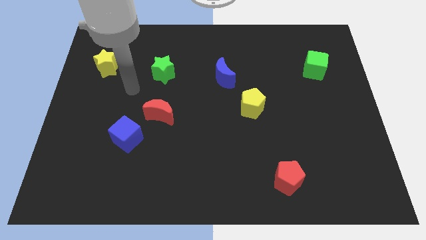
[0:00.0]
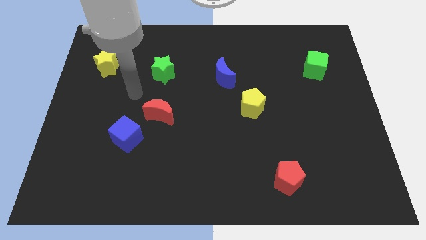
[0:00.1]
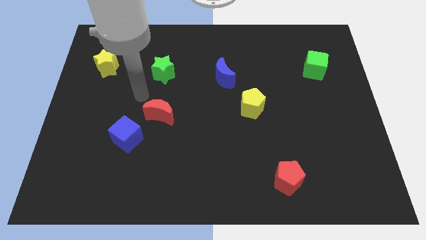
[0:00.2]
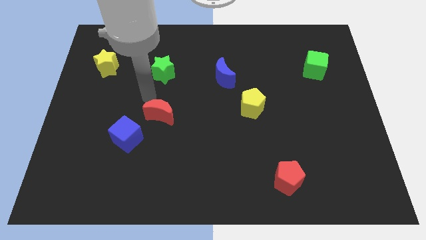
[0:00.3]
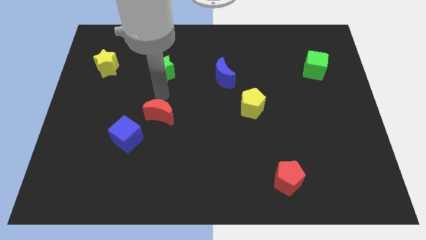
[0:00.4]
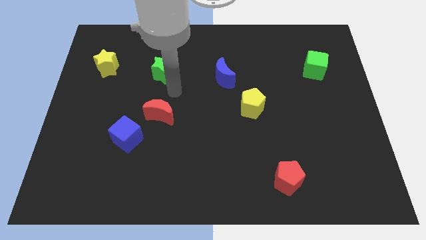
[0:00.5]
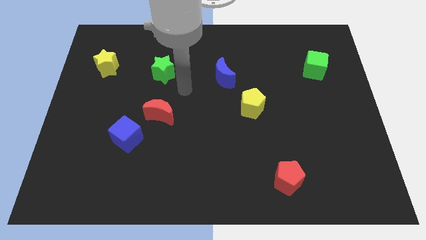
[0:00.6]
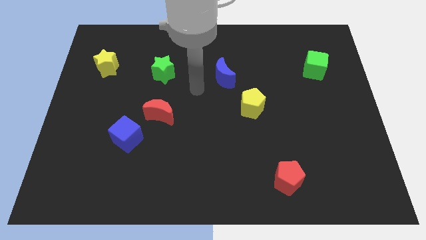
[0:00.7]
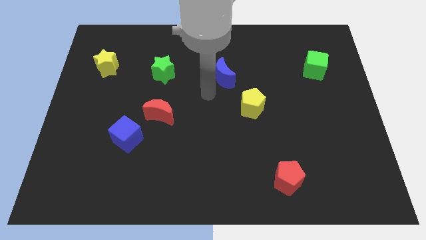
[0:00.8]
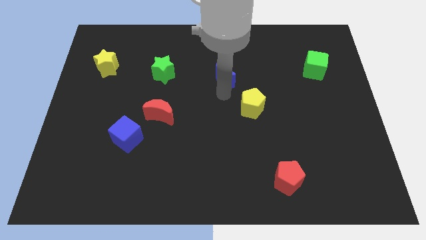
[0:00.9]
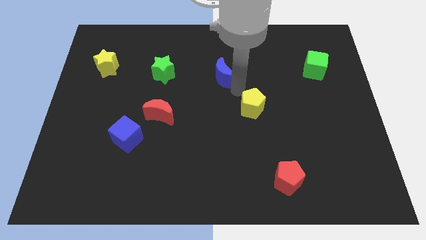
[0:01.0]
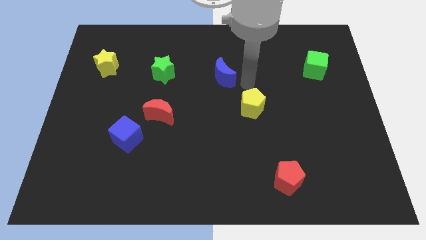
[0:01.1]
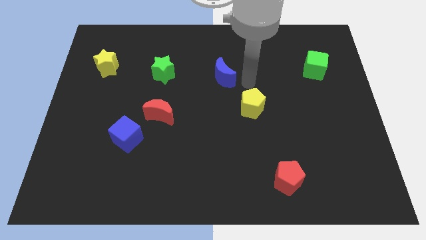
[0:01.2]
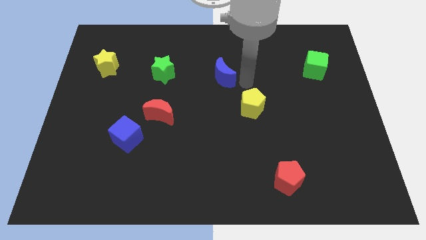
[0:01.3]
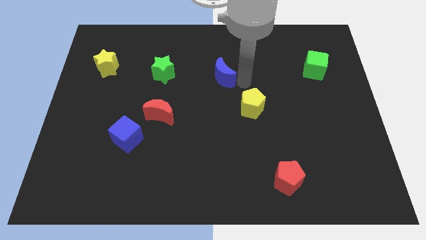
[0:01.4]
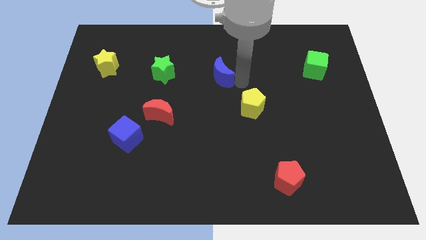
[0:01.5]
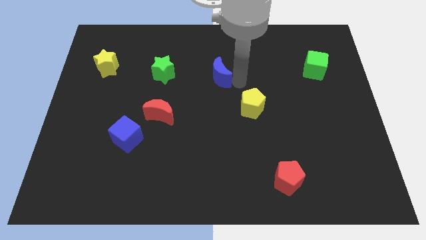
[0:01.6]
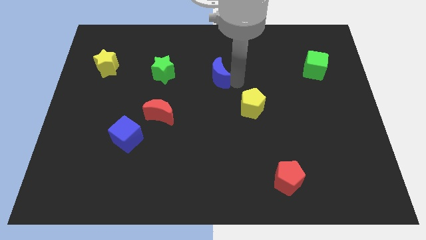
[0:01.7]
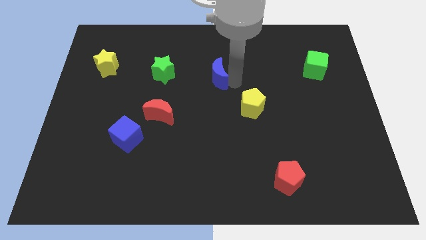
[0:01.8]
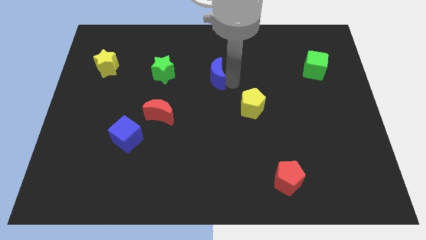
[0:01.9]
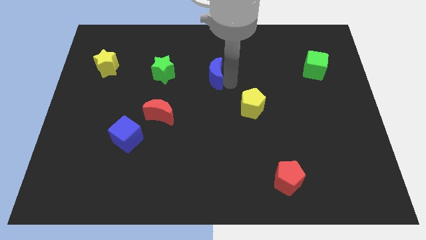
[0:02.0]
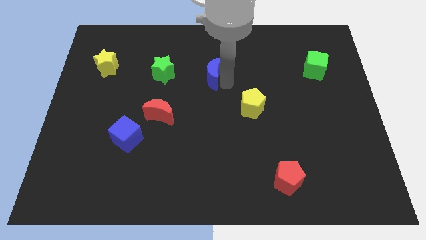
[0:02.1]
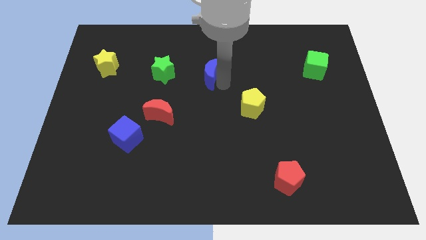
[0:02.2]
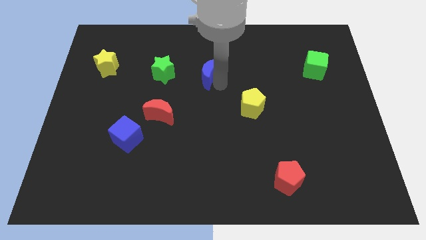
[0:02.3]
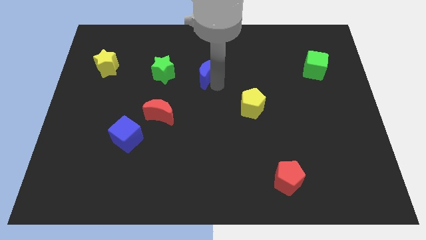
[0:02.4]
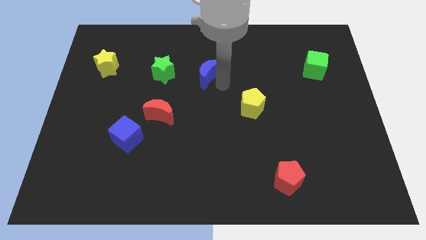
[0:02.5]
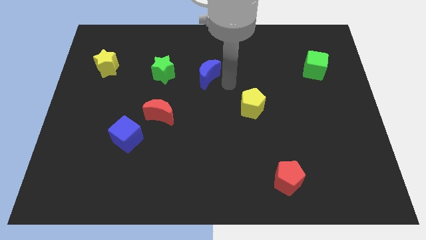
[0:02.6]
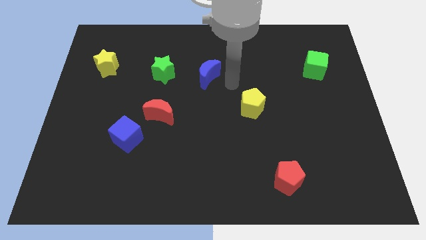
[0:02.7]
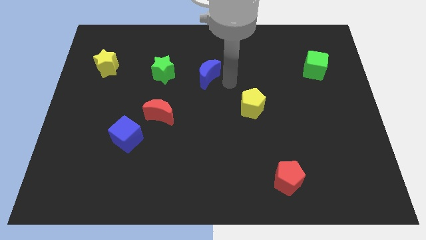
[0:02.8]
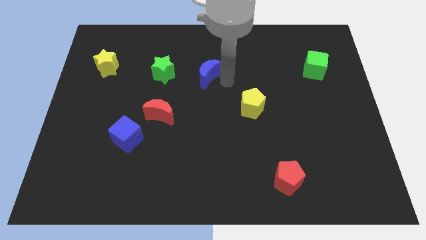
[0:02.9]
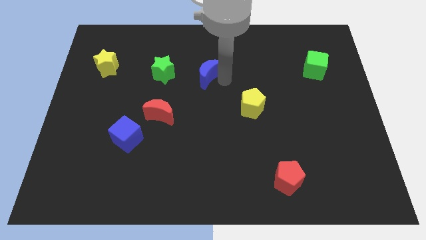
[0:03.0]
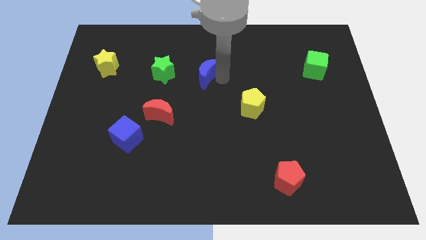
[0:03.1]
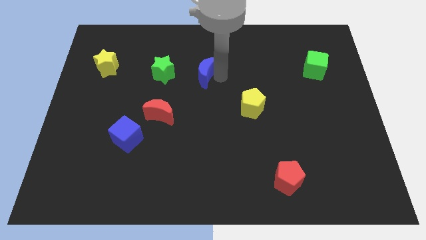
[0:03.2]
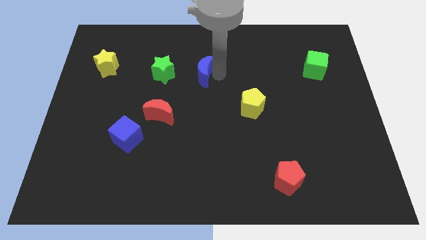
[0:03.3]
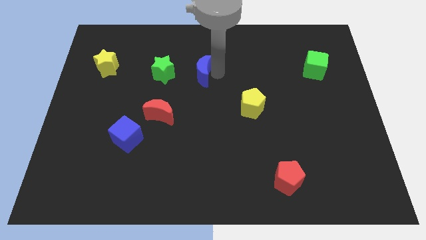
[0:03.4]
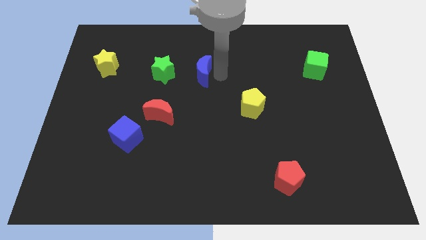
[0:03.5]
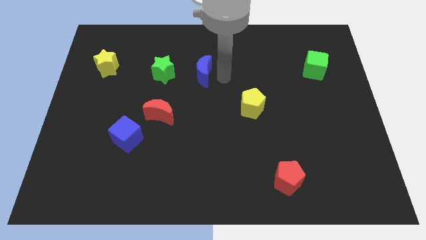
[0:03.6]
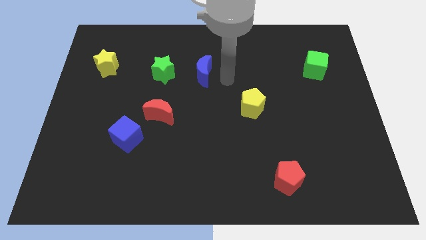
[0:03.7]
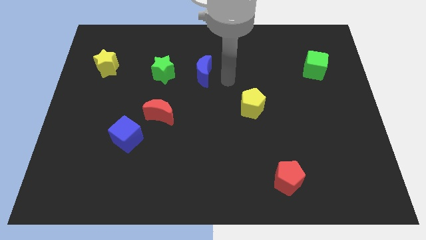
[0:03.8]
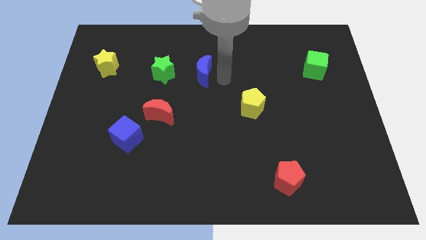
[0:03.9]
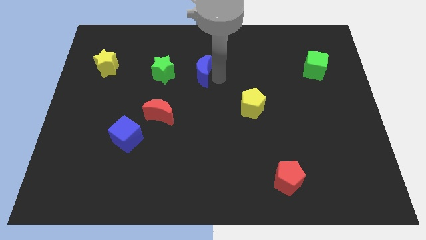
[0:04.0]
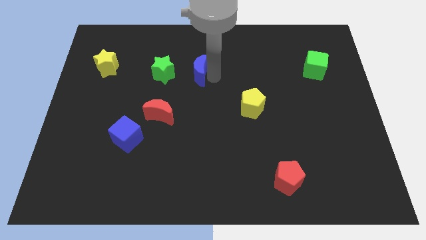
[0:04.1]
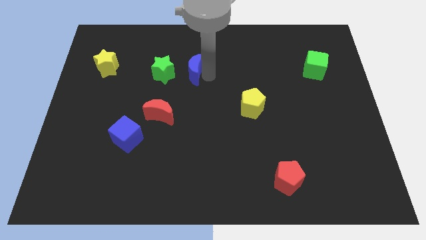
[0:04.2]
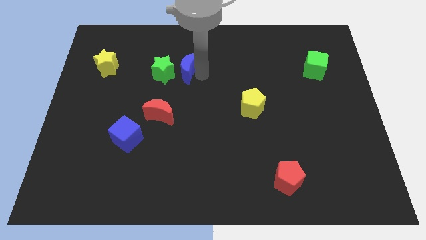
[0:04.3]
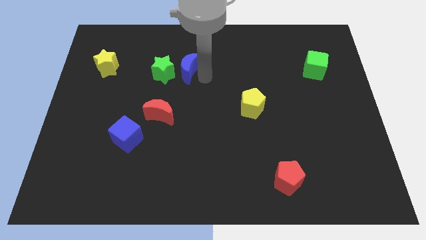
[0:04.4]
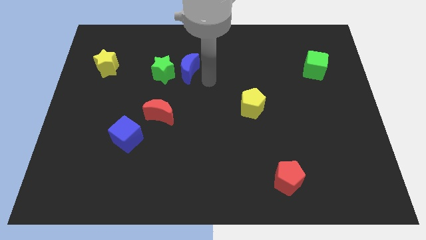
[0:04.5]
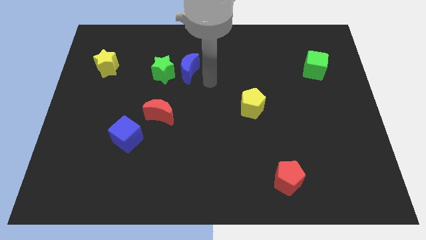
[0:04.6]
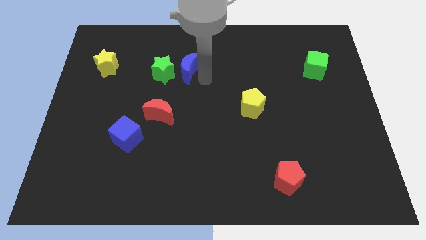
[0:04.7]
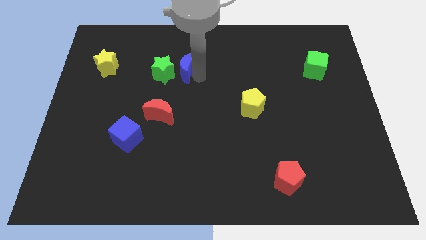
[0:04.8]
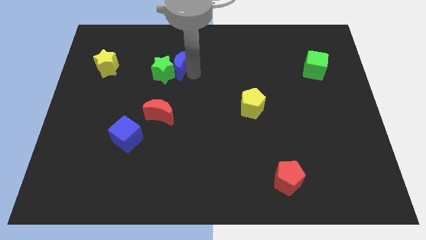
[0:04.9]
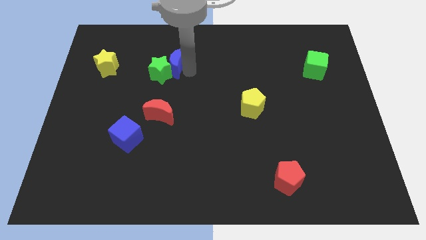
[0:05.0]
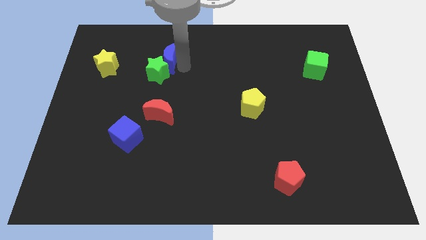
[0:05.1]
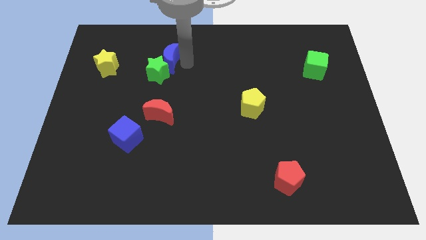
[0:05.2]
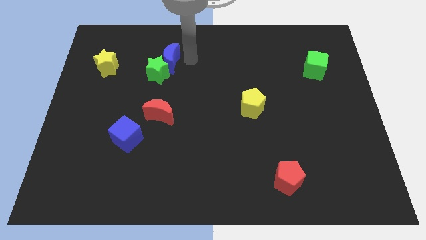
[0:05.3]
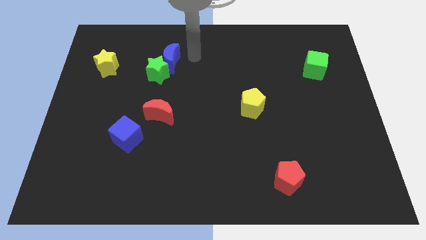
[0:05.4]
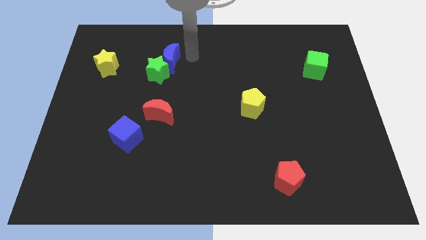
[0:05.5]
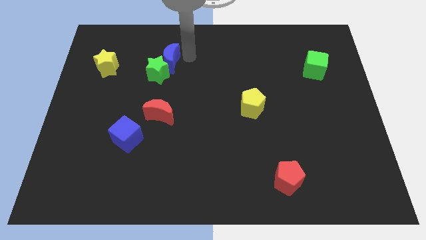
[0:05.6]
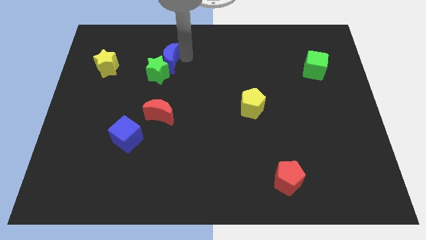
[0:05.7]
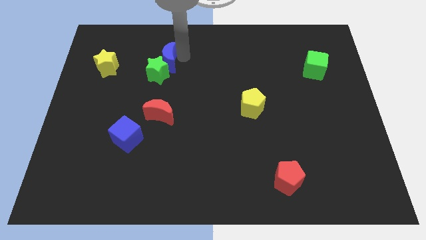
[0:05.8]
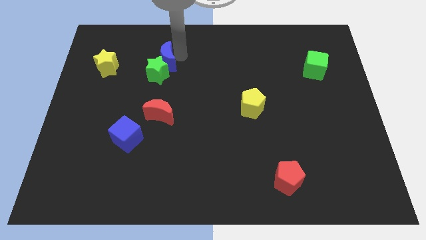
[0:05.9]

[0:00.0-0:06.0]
move the blue moon to the right side of the yellow star
